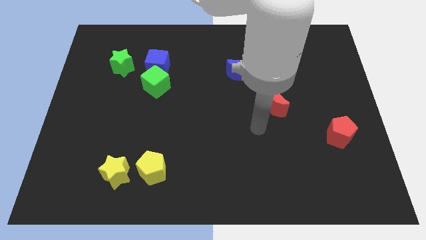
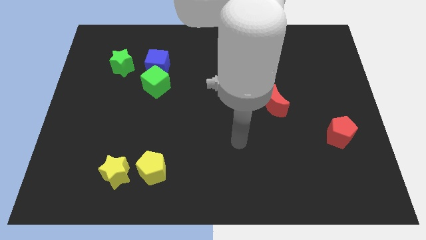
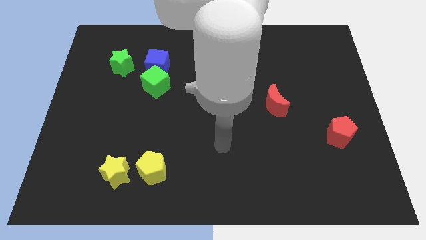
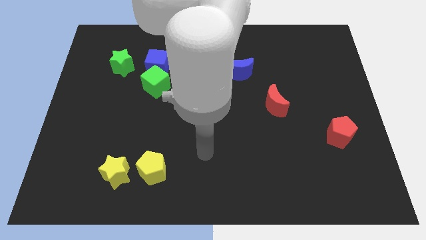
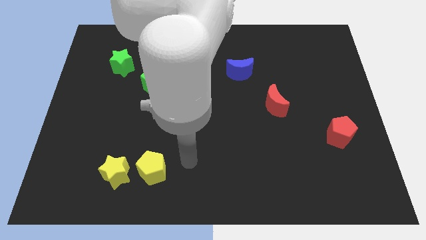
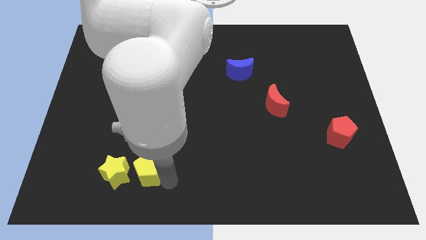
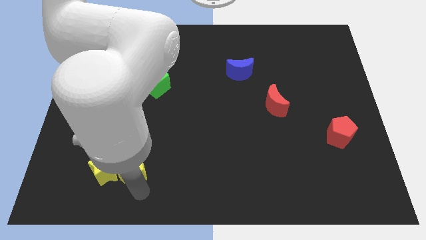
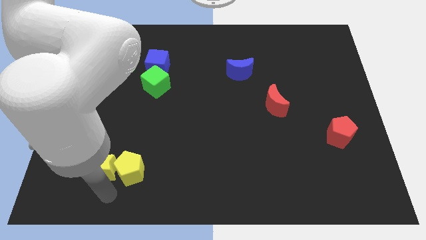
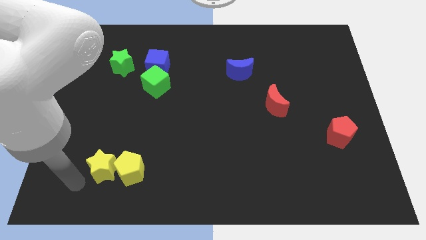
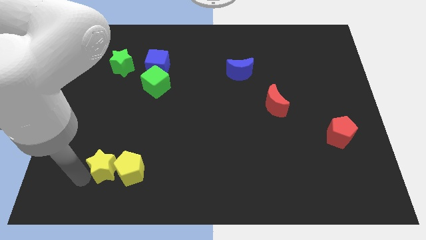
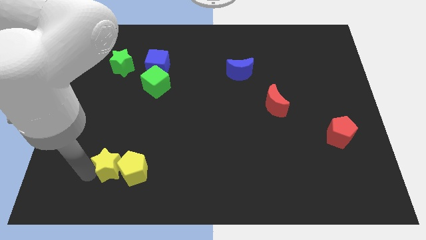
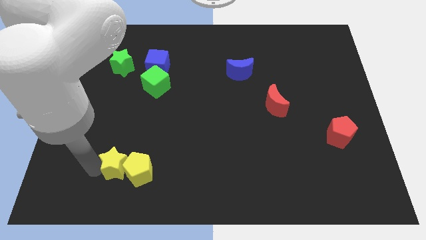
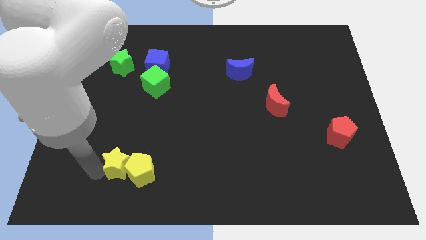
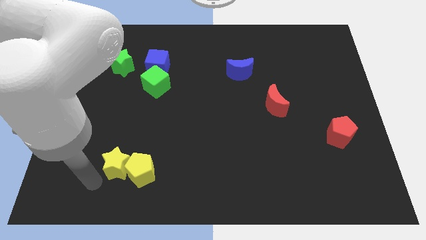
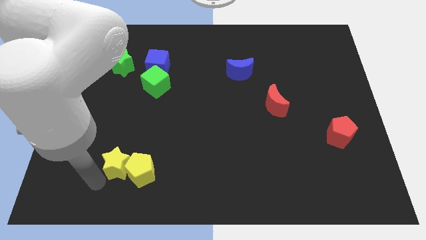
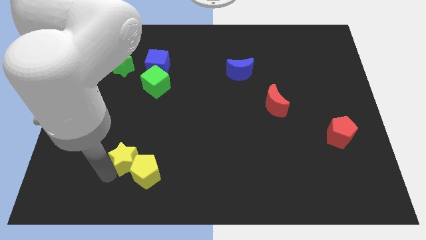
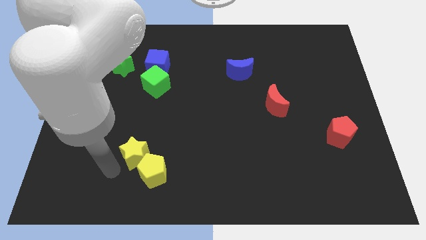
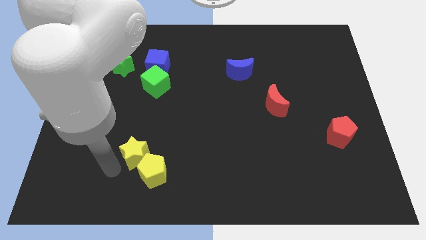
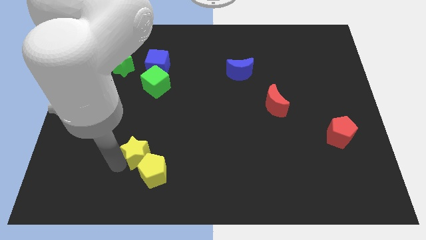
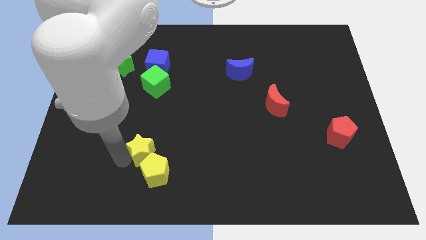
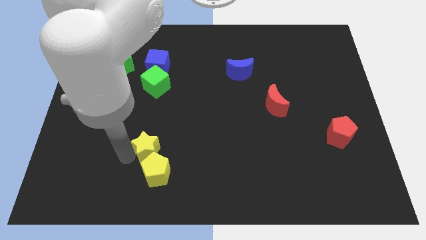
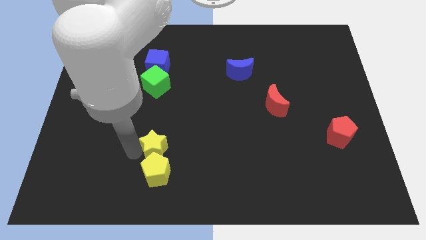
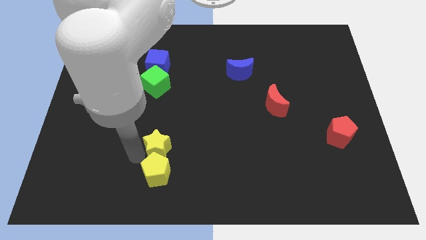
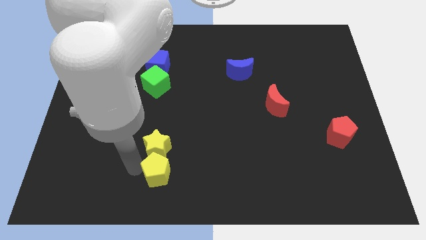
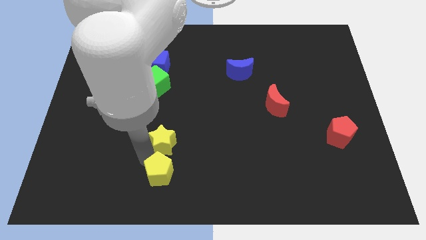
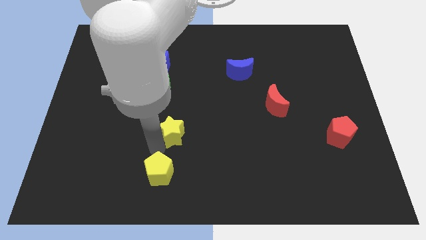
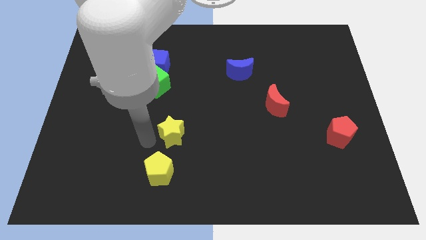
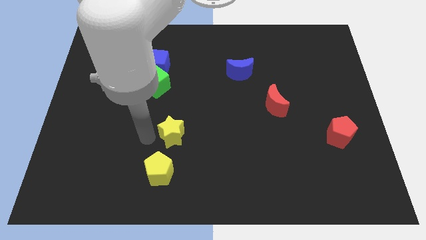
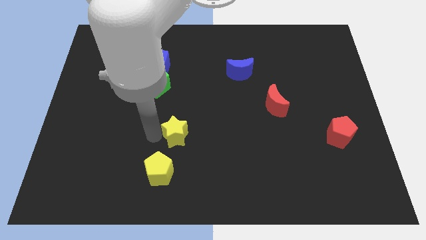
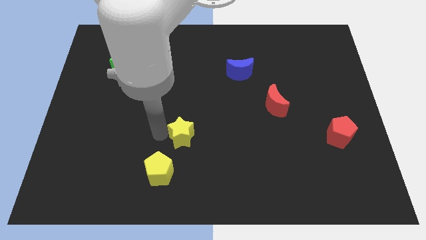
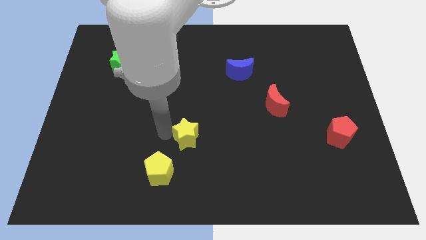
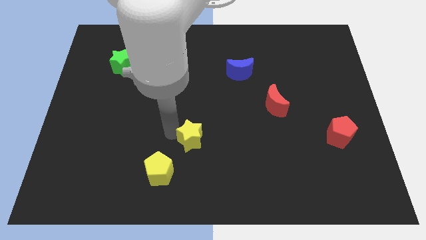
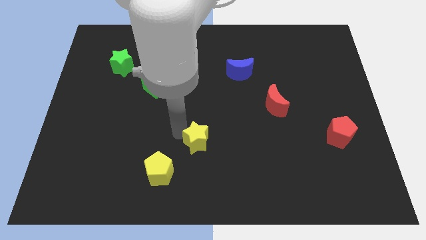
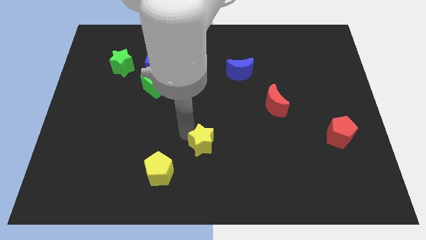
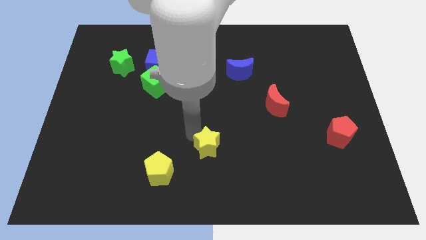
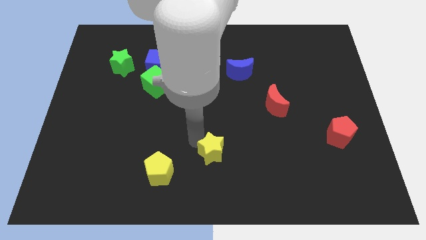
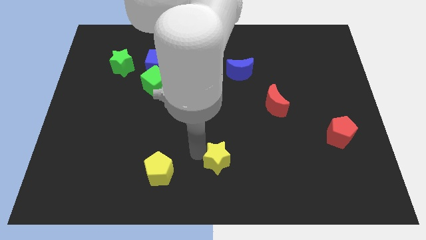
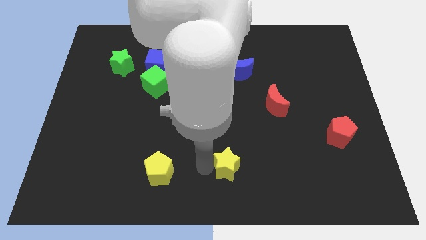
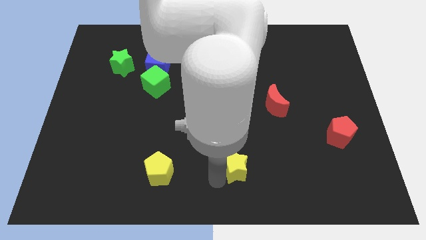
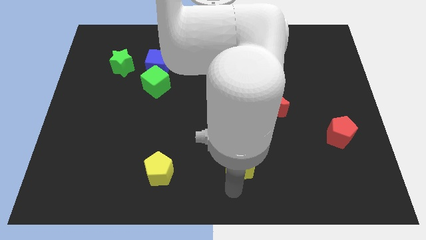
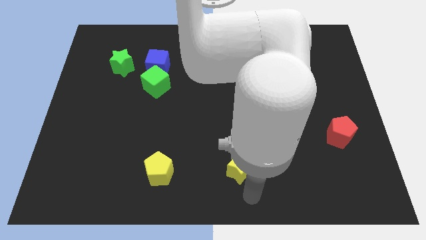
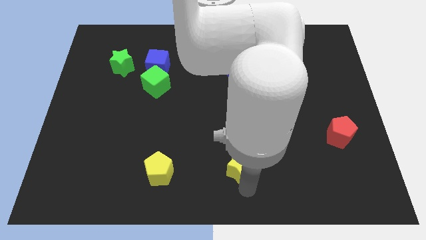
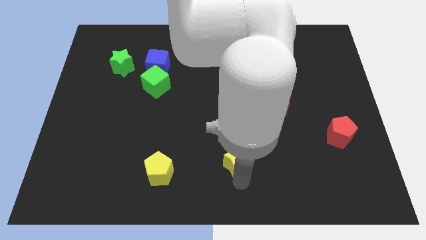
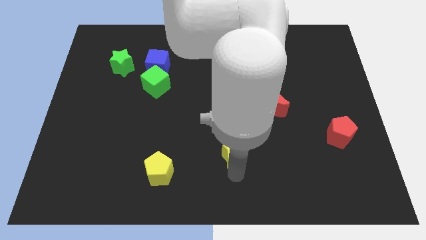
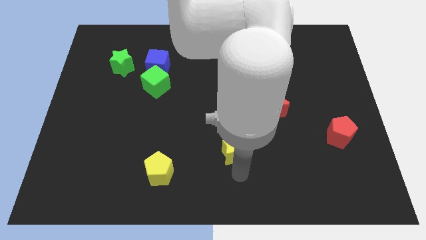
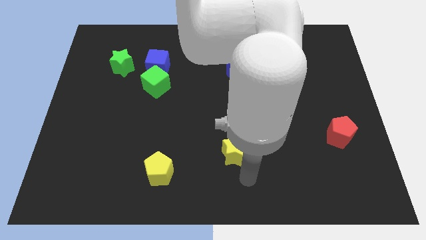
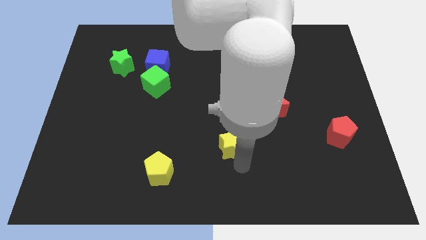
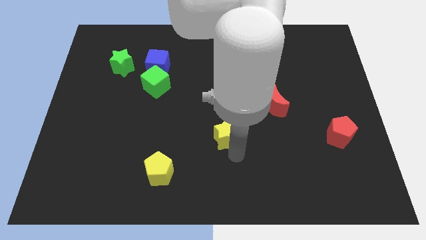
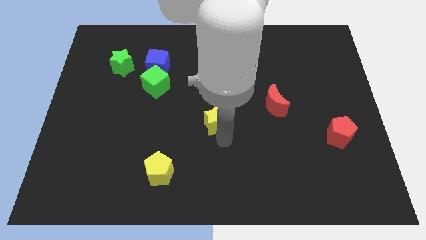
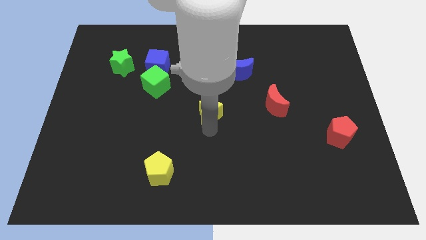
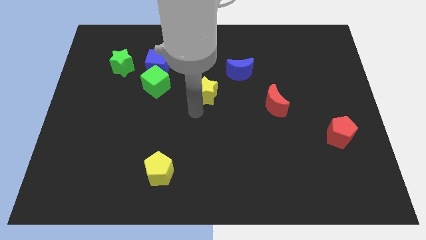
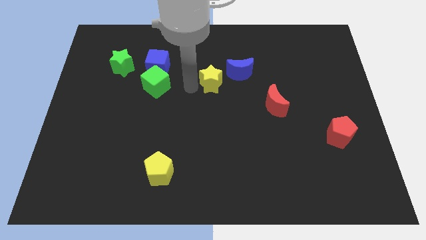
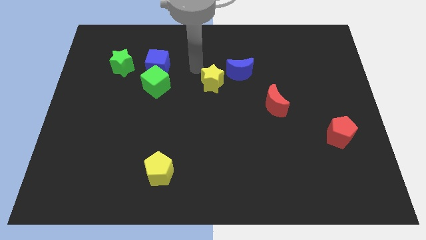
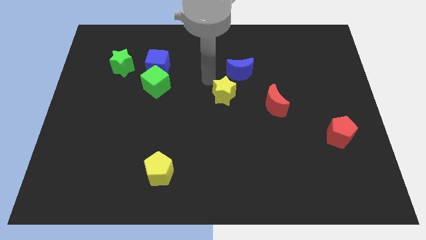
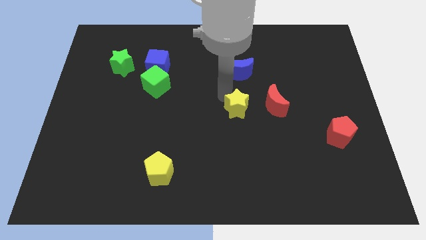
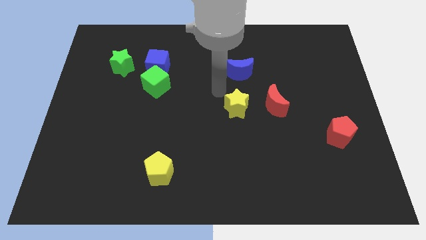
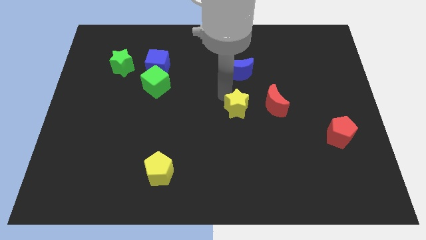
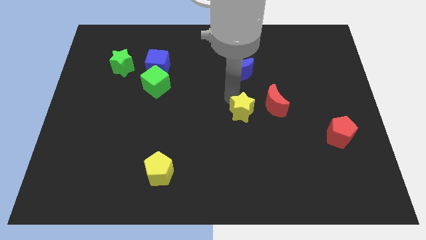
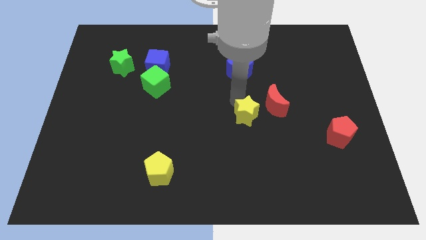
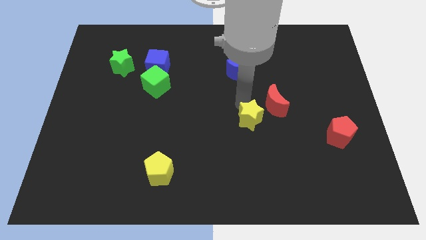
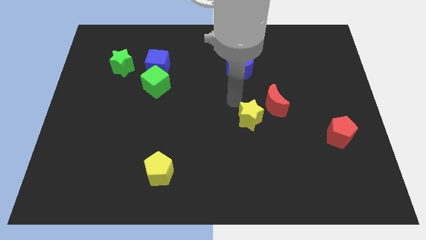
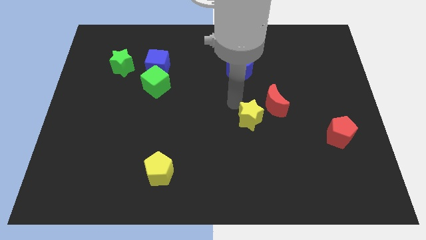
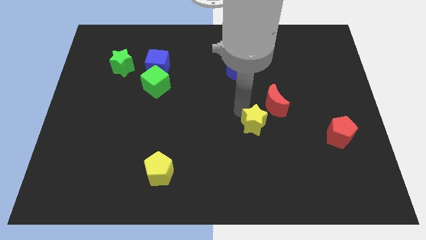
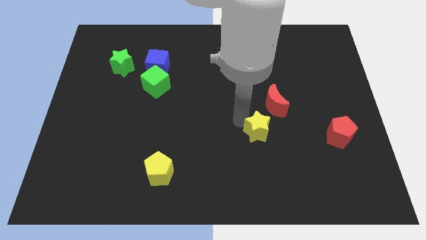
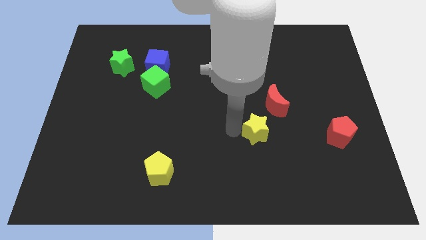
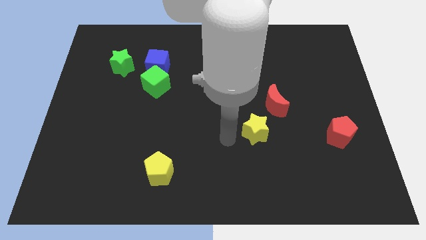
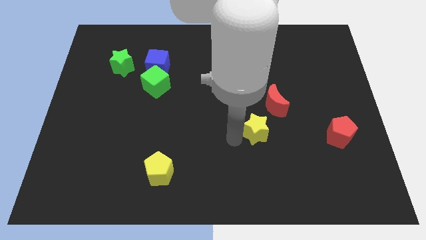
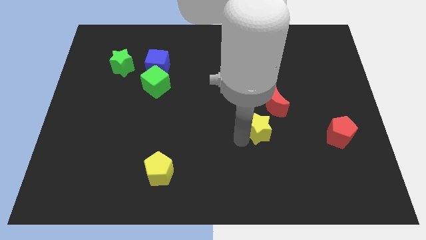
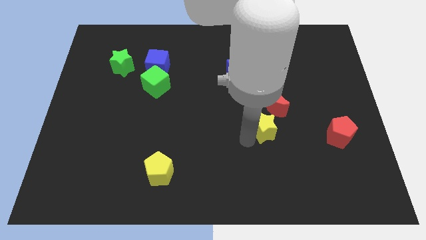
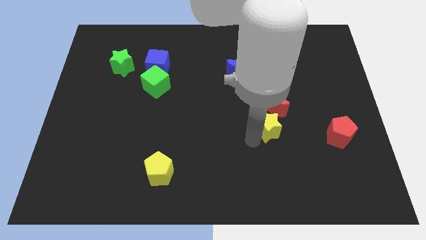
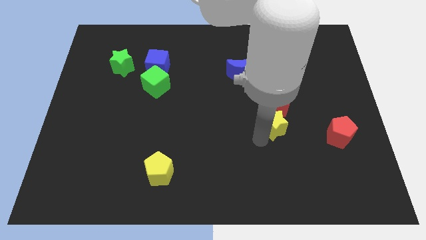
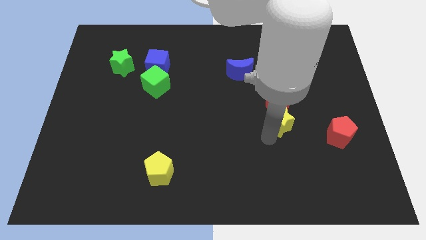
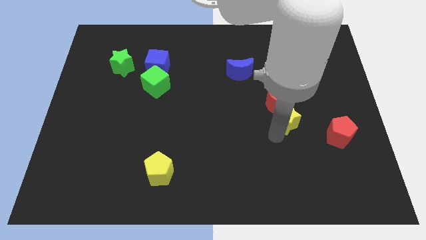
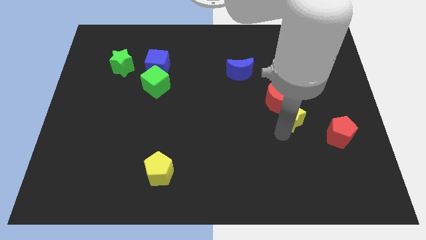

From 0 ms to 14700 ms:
slide the yellow star to the top left side of the red pentagon
